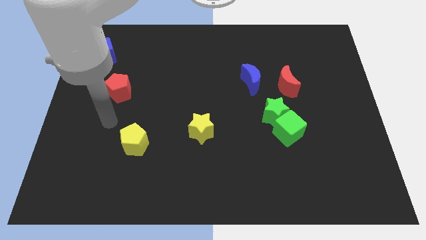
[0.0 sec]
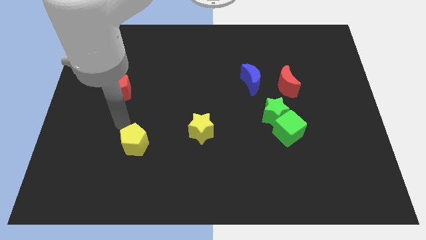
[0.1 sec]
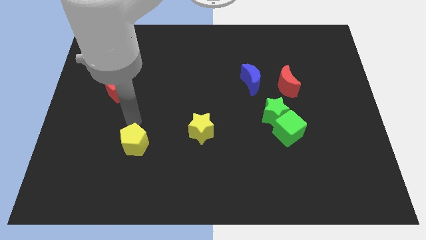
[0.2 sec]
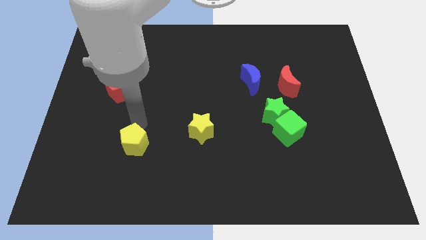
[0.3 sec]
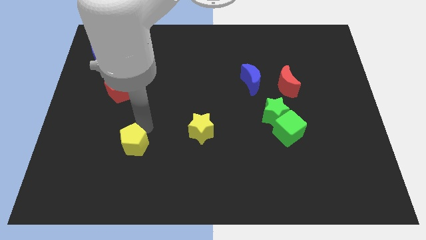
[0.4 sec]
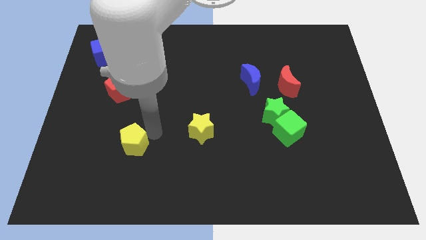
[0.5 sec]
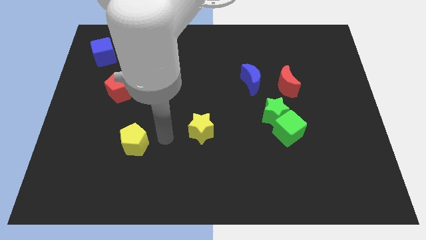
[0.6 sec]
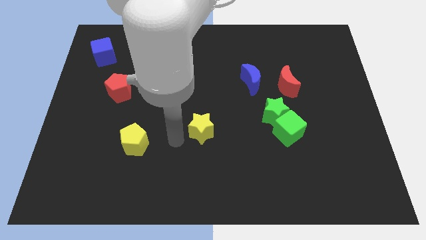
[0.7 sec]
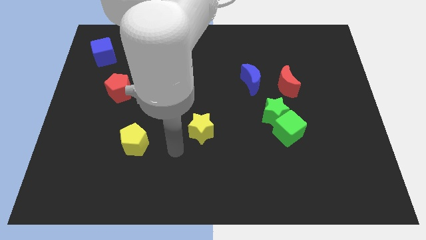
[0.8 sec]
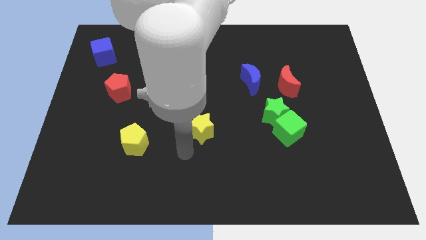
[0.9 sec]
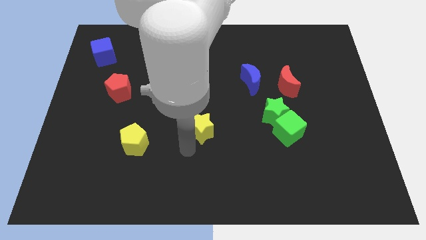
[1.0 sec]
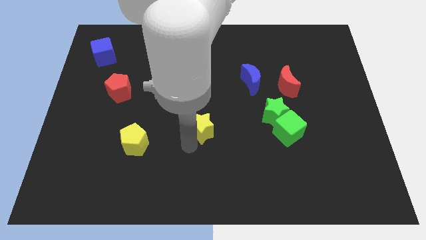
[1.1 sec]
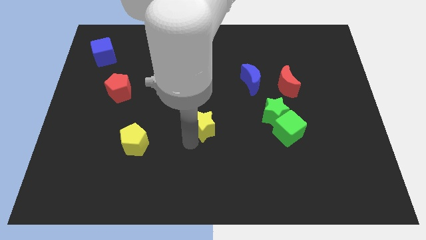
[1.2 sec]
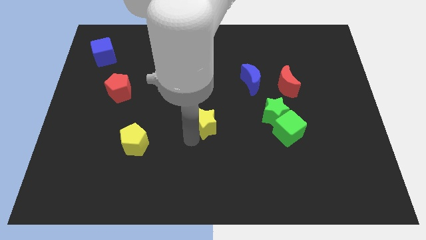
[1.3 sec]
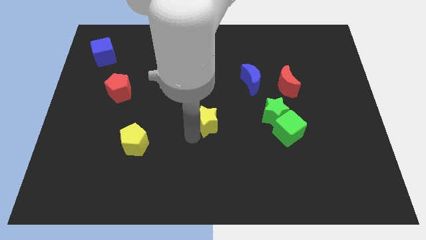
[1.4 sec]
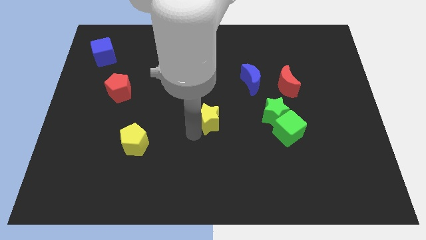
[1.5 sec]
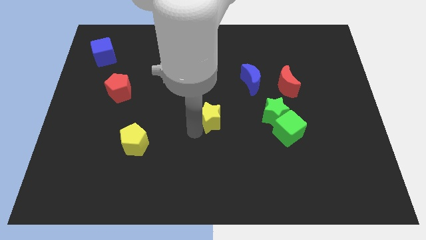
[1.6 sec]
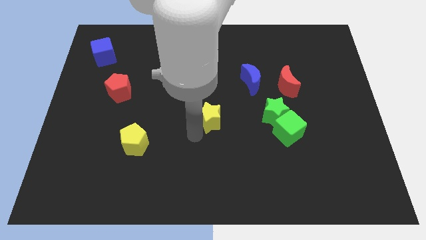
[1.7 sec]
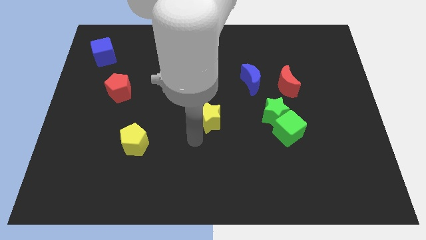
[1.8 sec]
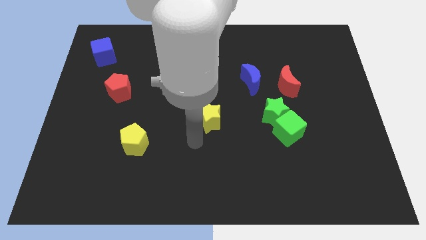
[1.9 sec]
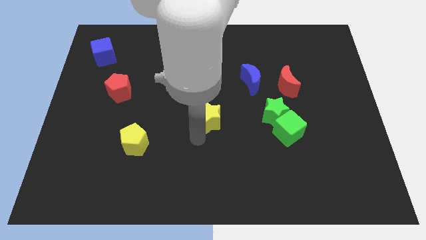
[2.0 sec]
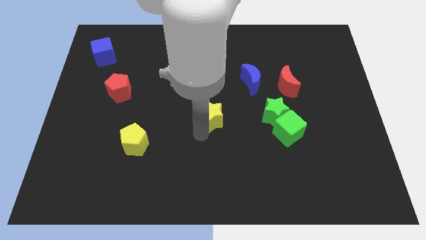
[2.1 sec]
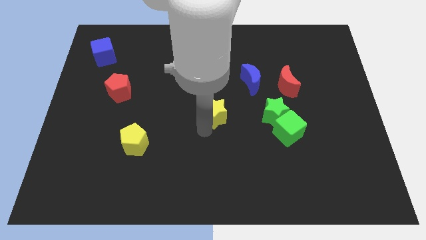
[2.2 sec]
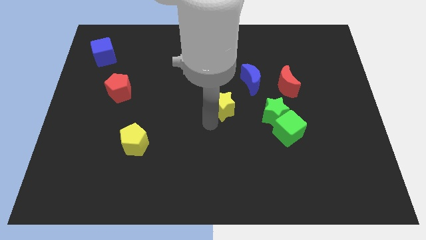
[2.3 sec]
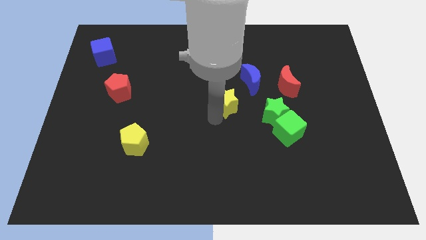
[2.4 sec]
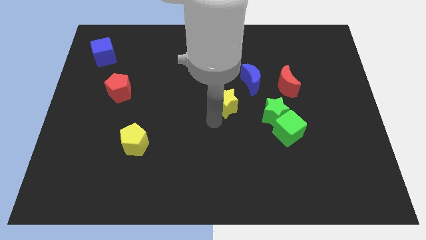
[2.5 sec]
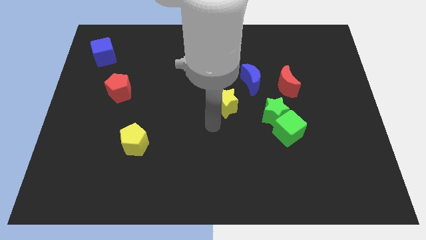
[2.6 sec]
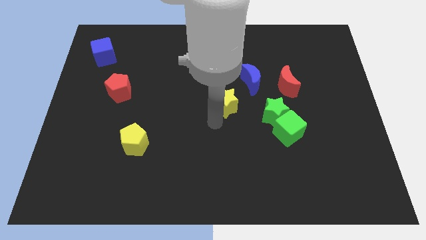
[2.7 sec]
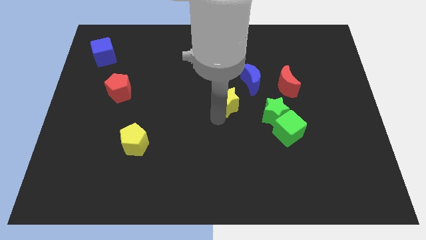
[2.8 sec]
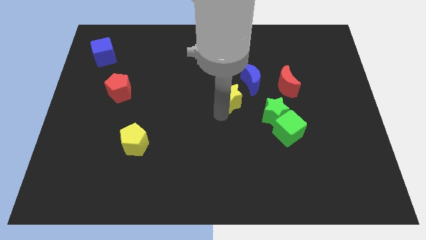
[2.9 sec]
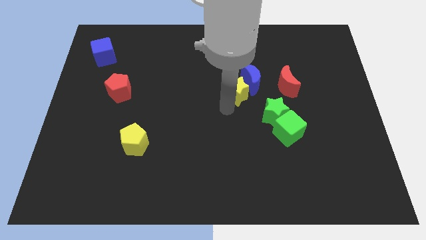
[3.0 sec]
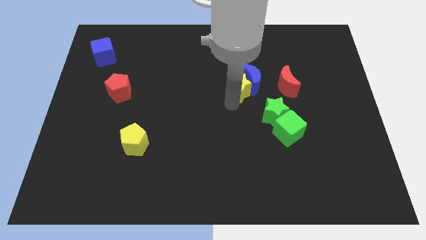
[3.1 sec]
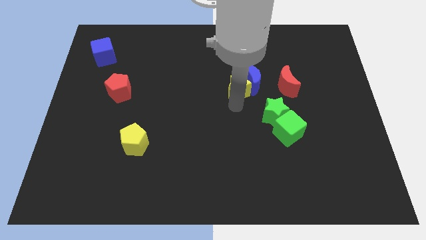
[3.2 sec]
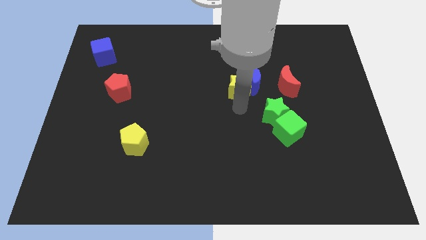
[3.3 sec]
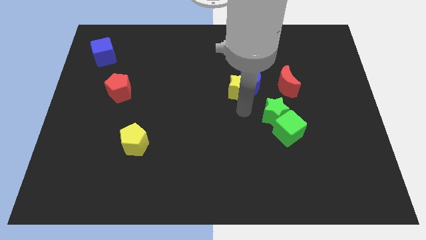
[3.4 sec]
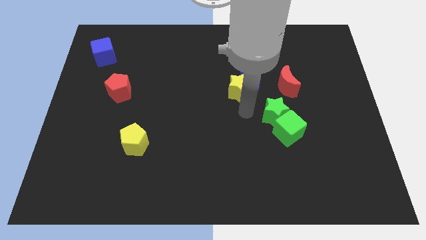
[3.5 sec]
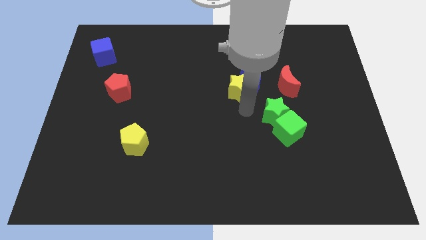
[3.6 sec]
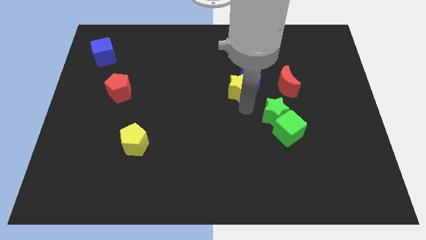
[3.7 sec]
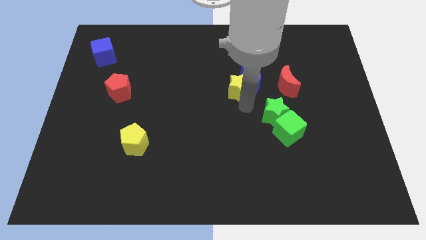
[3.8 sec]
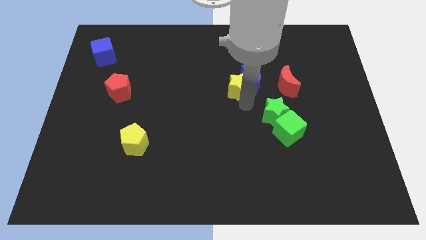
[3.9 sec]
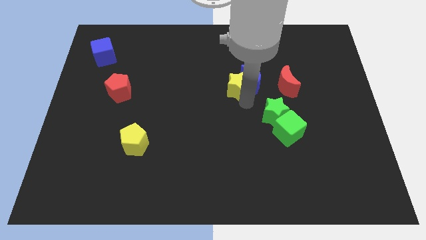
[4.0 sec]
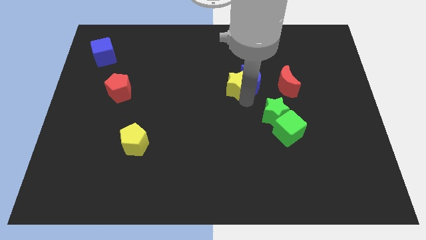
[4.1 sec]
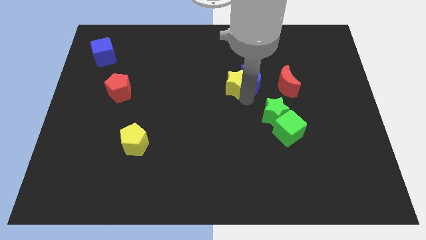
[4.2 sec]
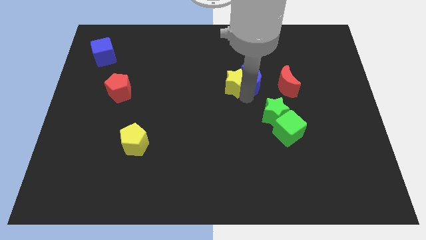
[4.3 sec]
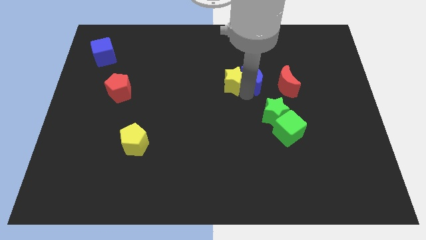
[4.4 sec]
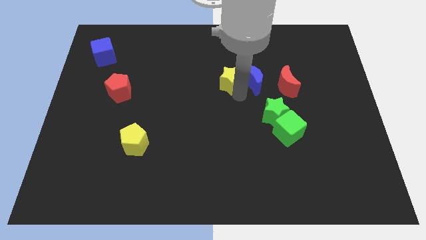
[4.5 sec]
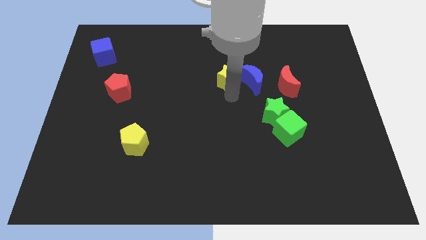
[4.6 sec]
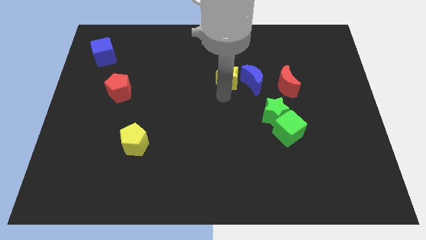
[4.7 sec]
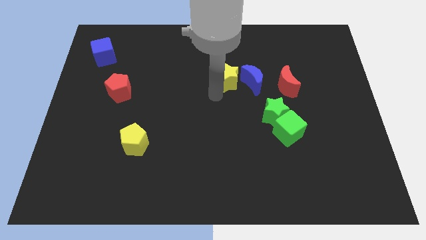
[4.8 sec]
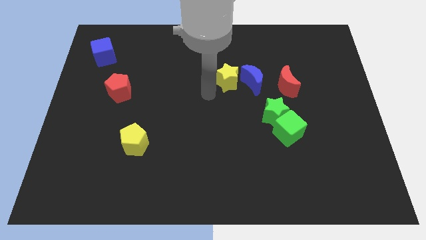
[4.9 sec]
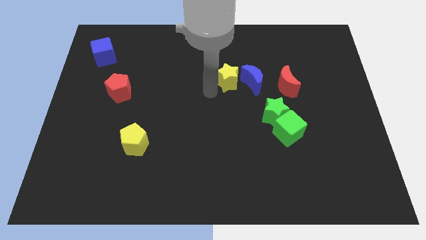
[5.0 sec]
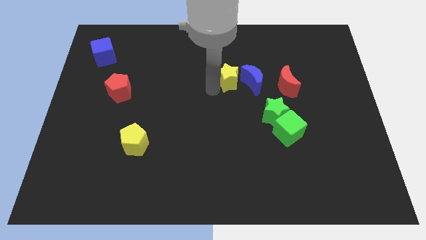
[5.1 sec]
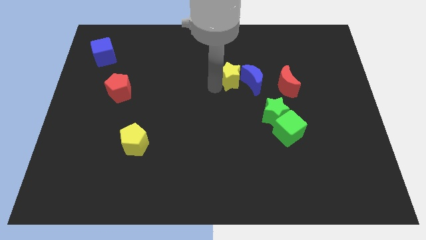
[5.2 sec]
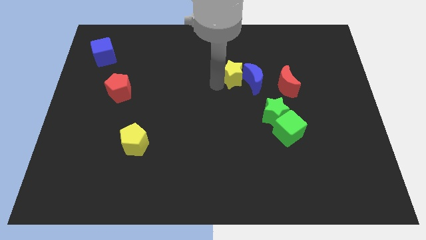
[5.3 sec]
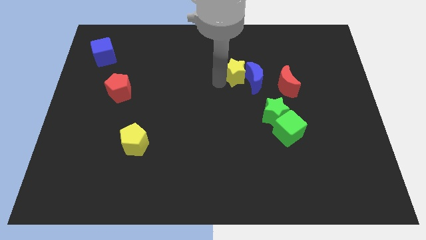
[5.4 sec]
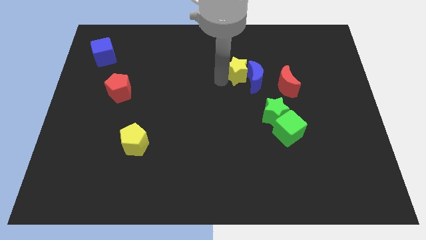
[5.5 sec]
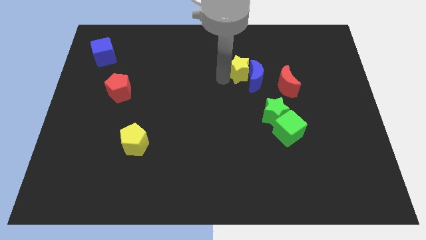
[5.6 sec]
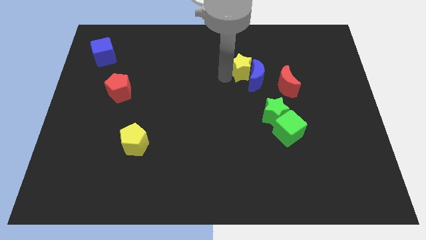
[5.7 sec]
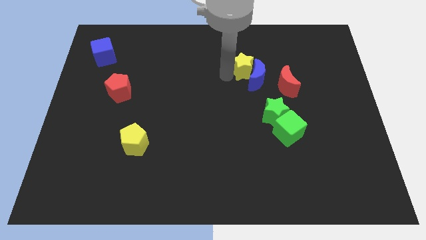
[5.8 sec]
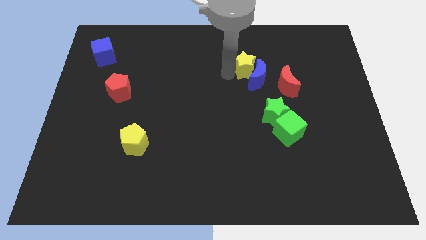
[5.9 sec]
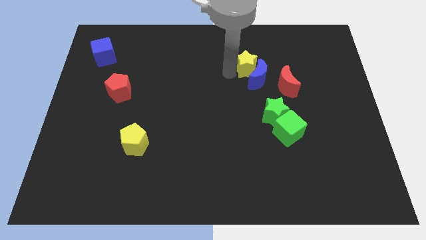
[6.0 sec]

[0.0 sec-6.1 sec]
move the yellow star upwards and right

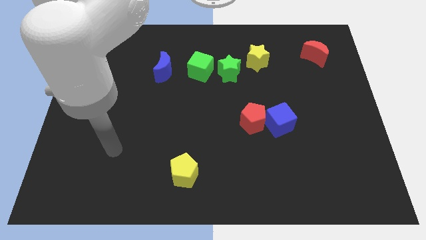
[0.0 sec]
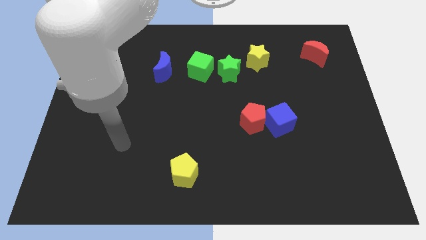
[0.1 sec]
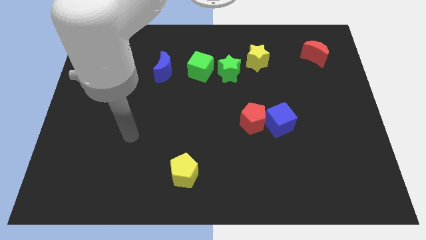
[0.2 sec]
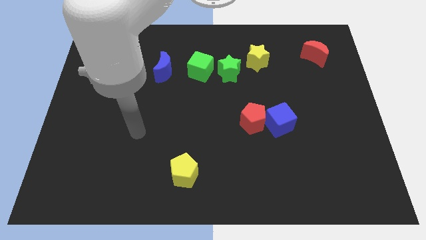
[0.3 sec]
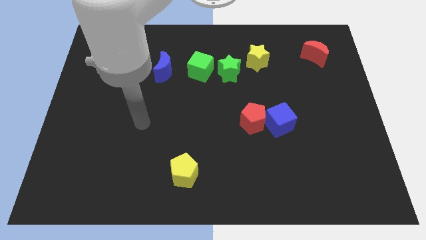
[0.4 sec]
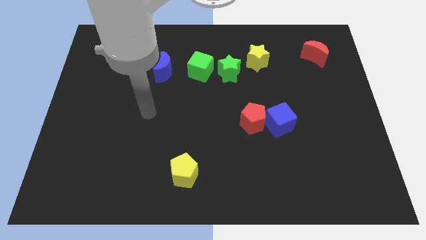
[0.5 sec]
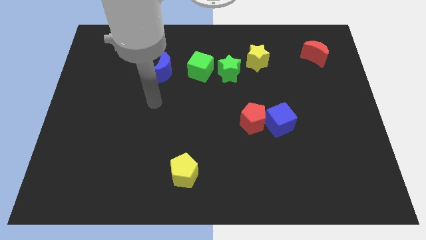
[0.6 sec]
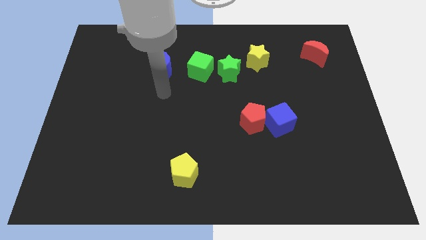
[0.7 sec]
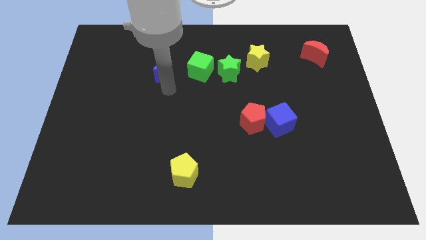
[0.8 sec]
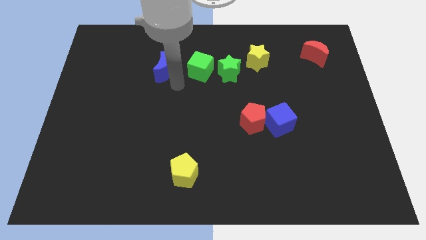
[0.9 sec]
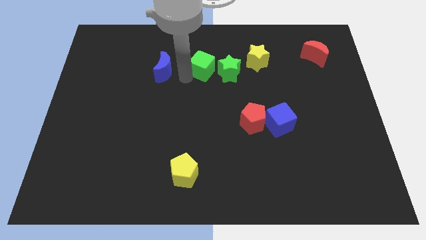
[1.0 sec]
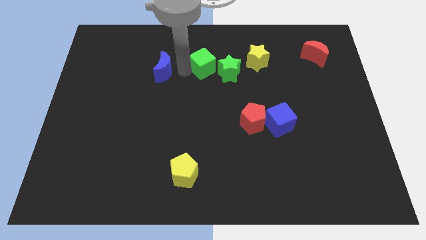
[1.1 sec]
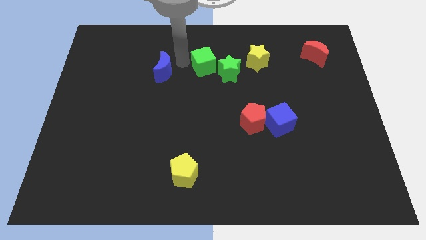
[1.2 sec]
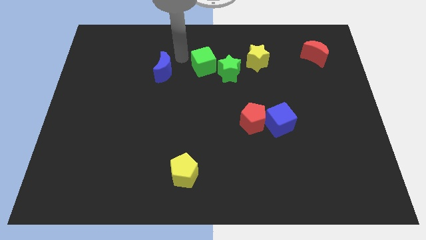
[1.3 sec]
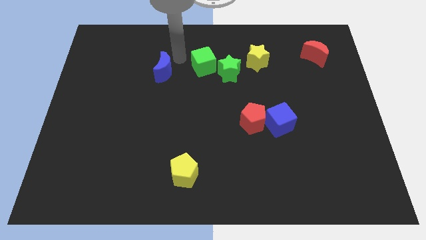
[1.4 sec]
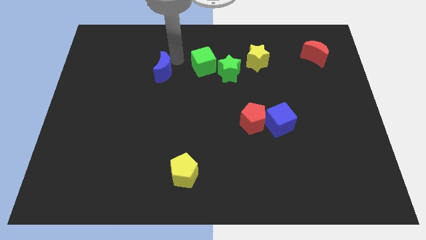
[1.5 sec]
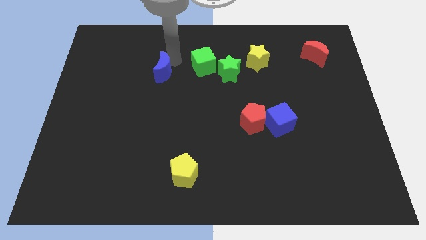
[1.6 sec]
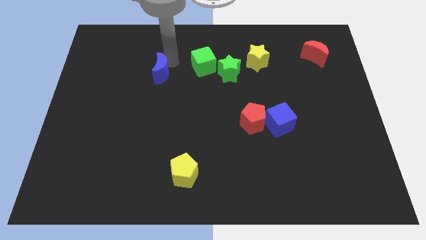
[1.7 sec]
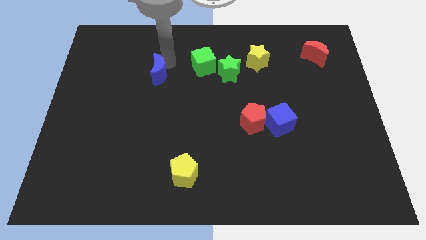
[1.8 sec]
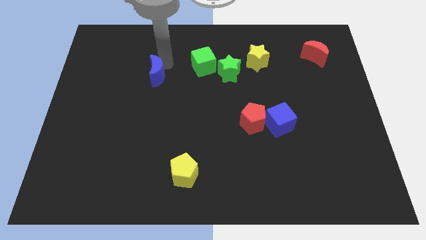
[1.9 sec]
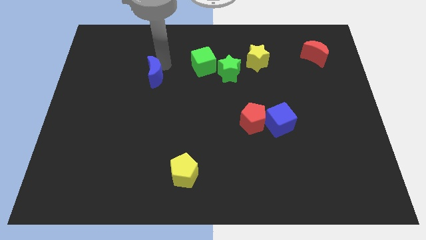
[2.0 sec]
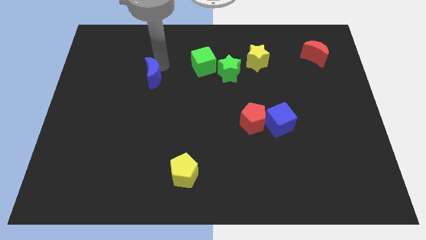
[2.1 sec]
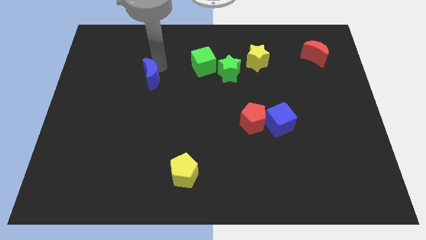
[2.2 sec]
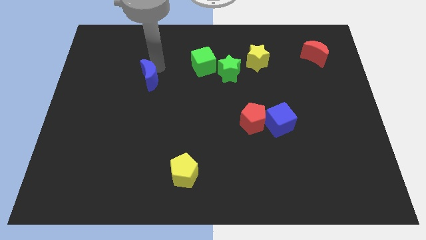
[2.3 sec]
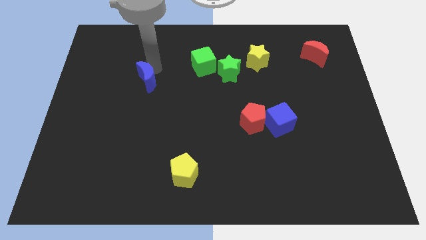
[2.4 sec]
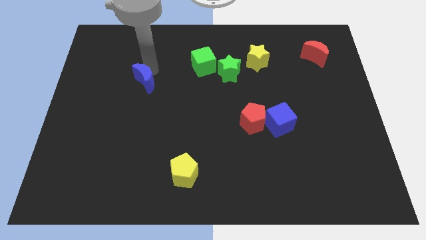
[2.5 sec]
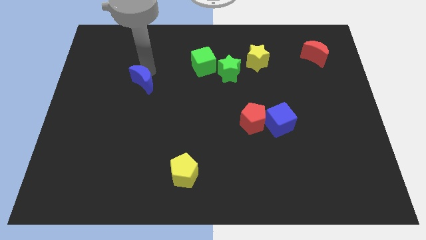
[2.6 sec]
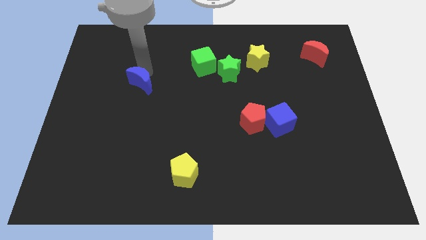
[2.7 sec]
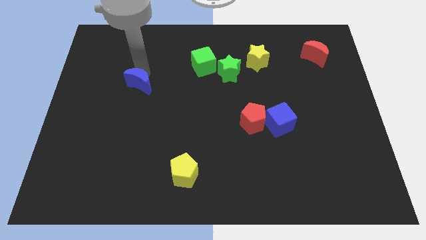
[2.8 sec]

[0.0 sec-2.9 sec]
move the blue moon diagonally down and left a little bit
